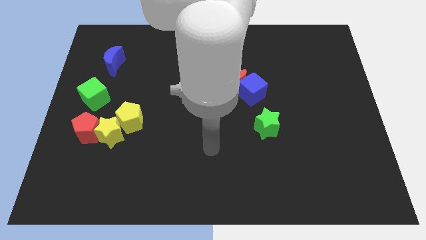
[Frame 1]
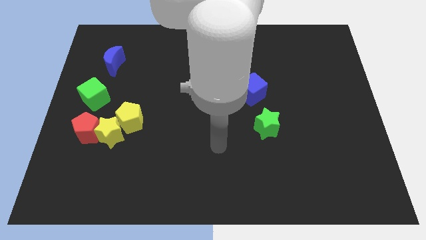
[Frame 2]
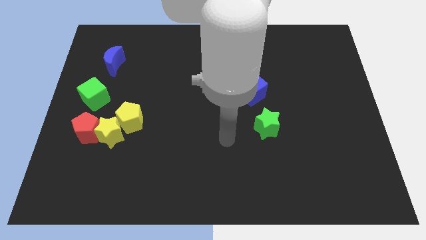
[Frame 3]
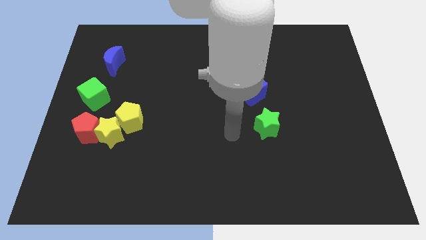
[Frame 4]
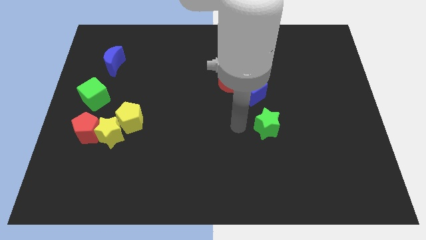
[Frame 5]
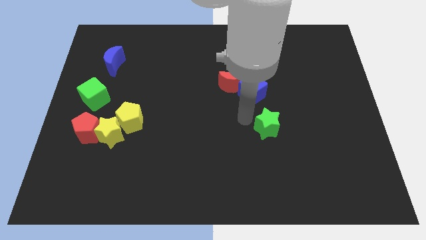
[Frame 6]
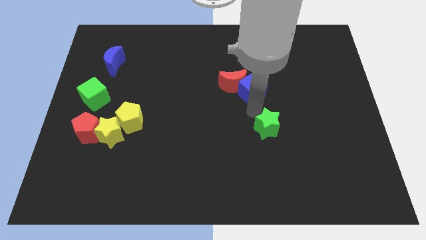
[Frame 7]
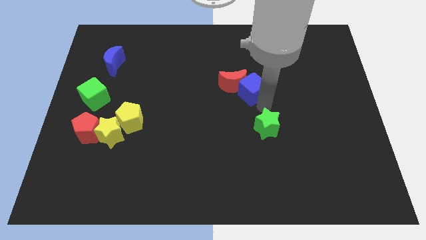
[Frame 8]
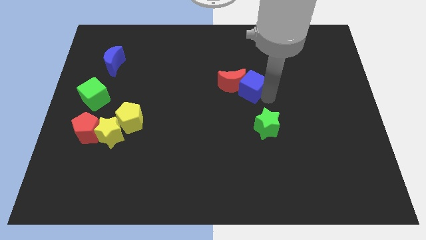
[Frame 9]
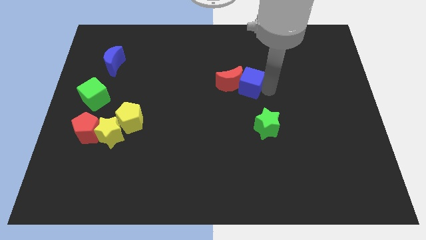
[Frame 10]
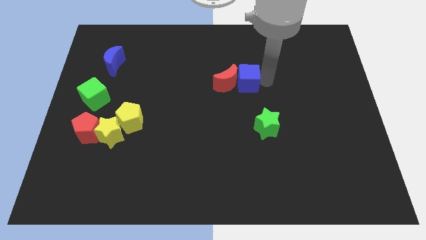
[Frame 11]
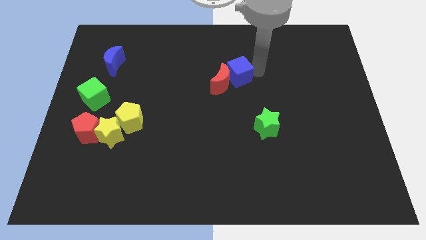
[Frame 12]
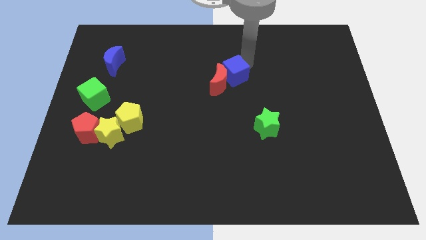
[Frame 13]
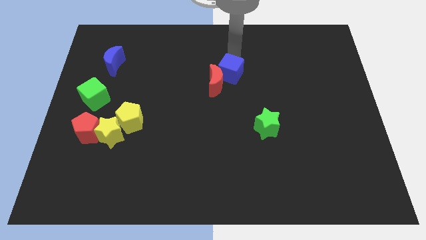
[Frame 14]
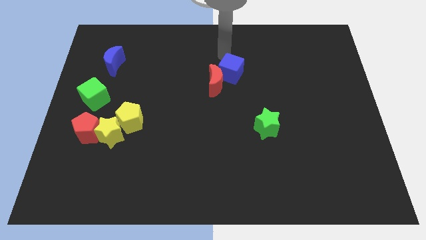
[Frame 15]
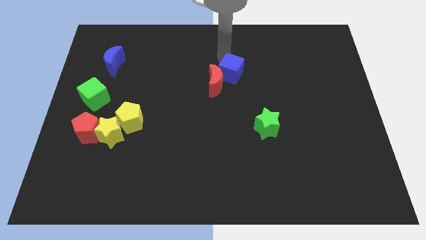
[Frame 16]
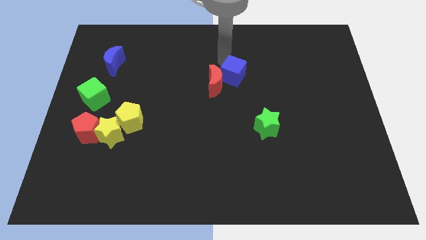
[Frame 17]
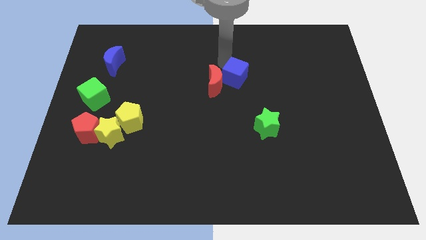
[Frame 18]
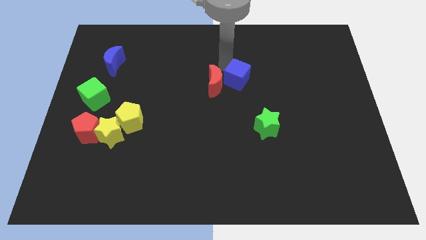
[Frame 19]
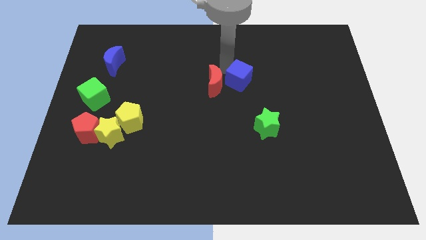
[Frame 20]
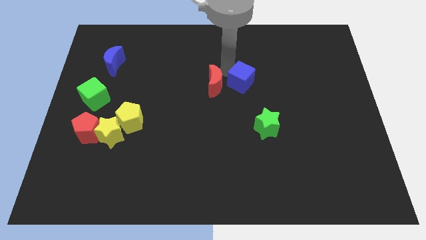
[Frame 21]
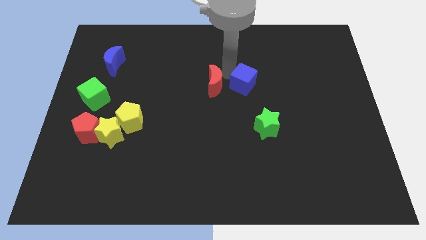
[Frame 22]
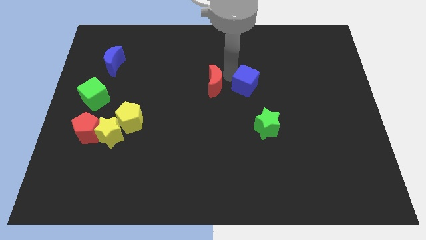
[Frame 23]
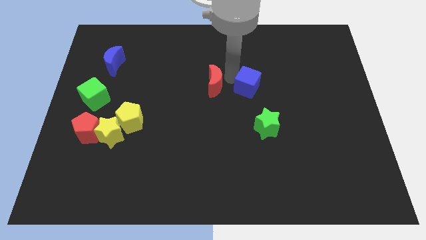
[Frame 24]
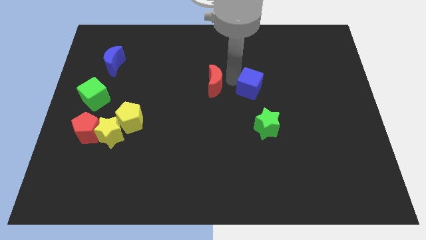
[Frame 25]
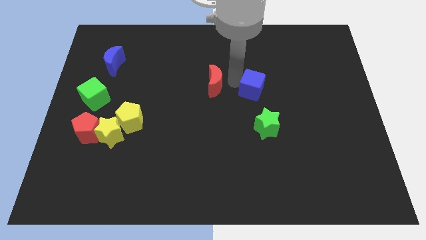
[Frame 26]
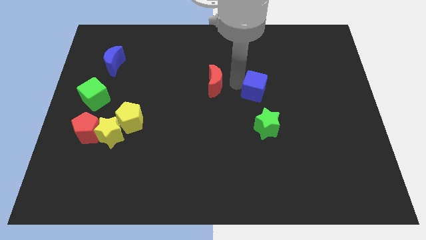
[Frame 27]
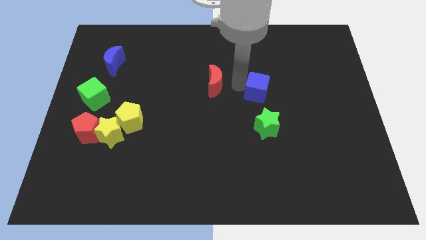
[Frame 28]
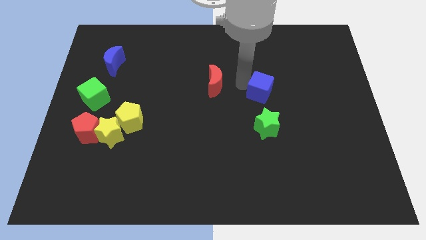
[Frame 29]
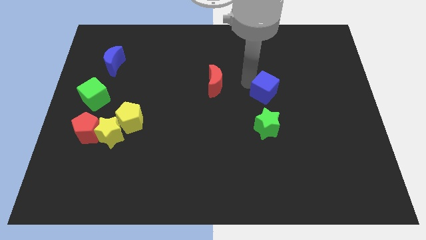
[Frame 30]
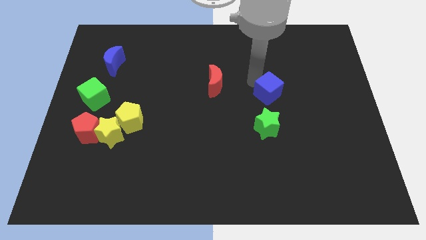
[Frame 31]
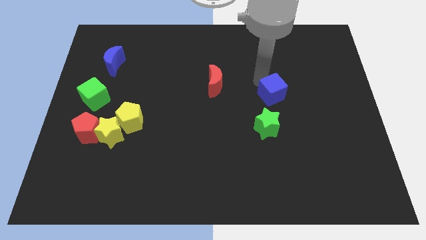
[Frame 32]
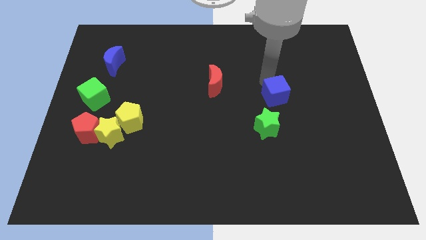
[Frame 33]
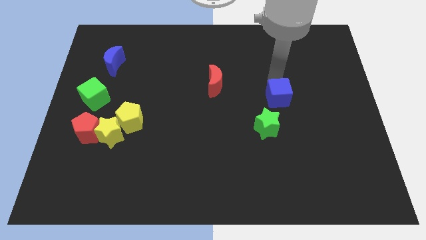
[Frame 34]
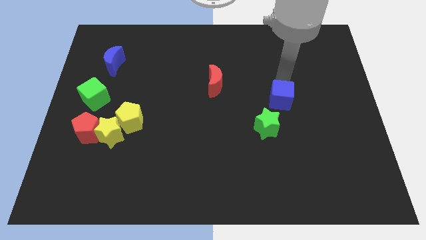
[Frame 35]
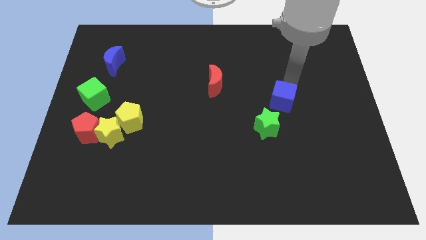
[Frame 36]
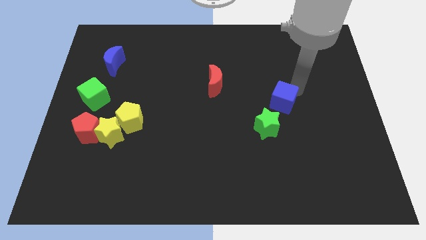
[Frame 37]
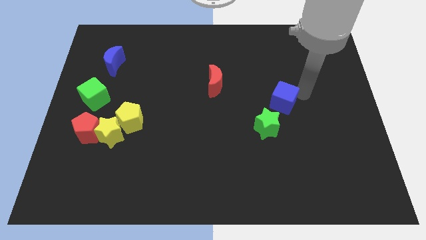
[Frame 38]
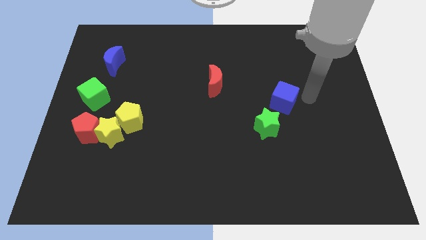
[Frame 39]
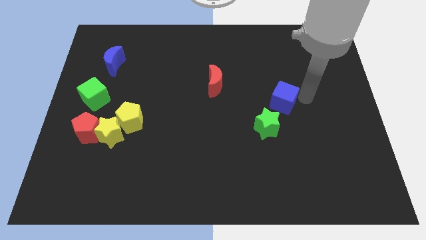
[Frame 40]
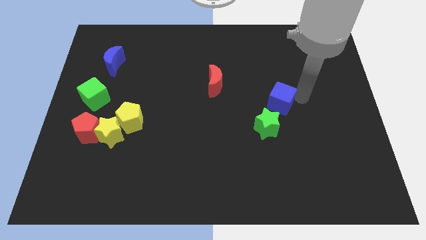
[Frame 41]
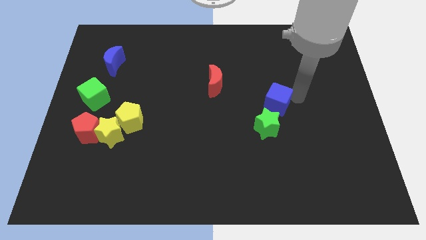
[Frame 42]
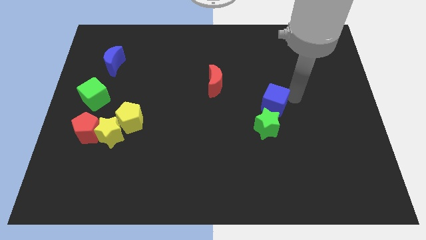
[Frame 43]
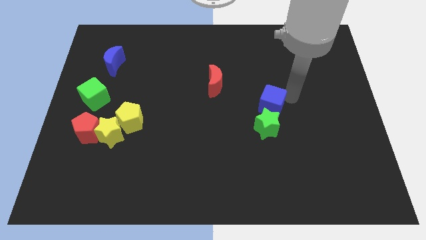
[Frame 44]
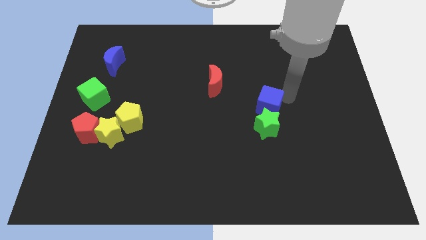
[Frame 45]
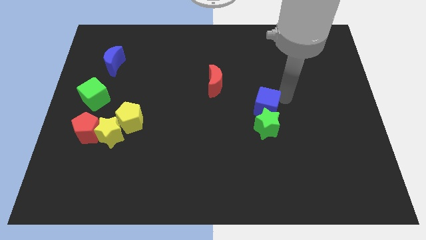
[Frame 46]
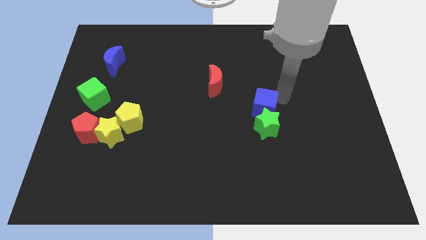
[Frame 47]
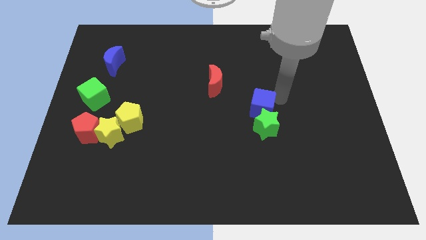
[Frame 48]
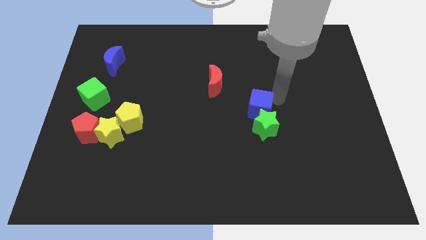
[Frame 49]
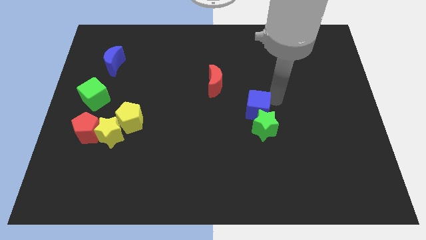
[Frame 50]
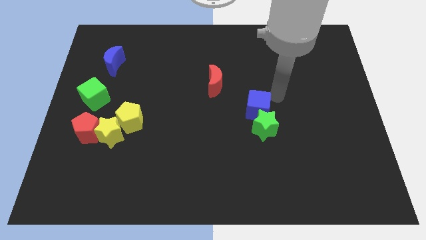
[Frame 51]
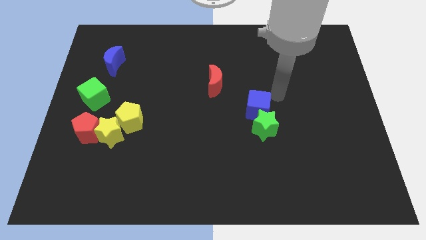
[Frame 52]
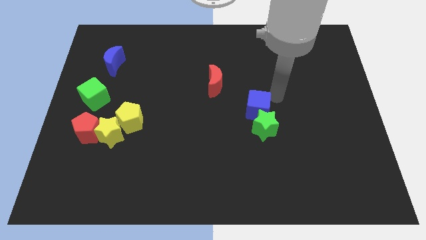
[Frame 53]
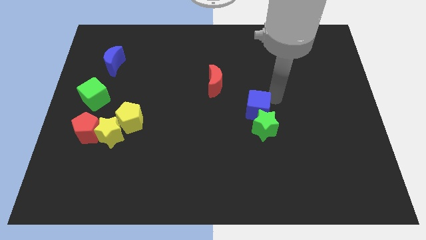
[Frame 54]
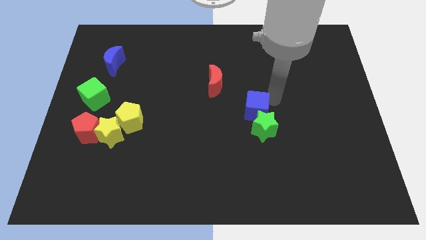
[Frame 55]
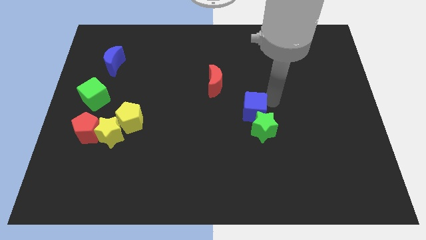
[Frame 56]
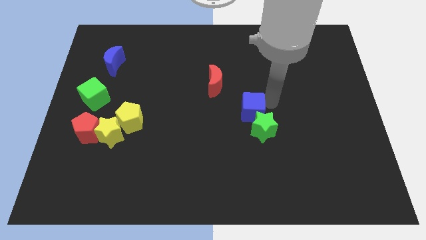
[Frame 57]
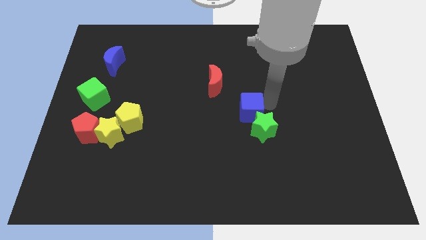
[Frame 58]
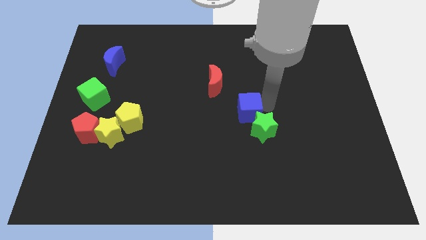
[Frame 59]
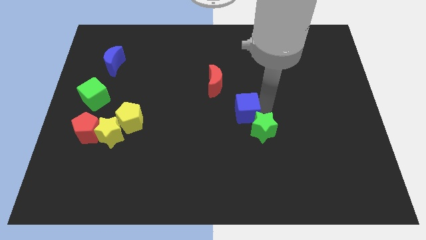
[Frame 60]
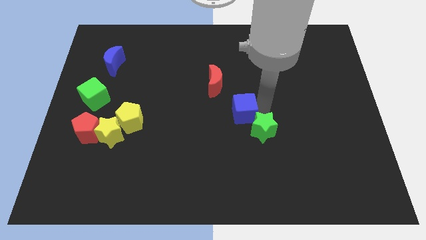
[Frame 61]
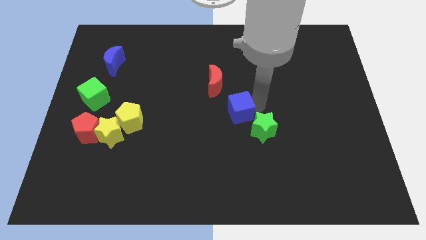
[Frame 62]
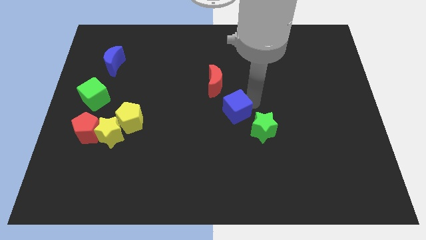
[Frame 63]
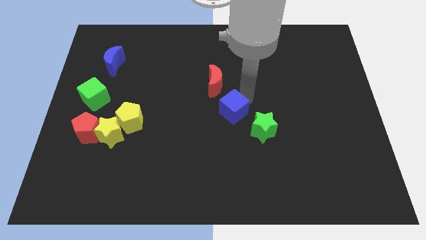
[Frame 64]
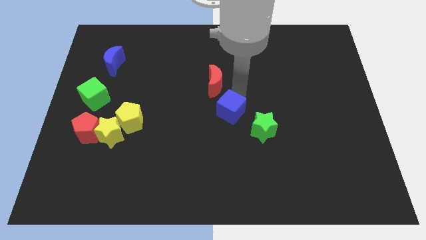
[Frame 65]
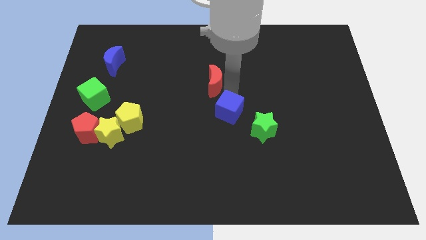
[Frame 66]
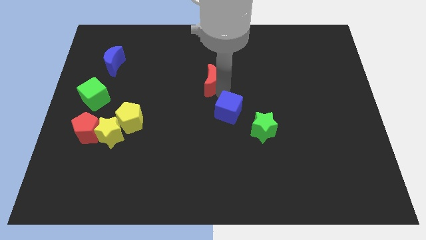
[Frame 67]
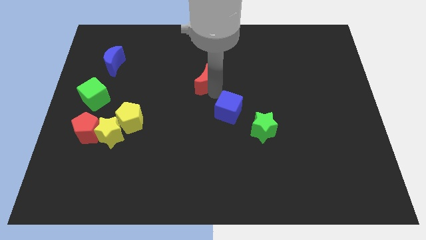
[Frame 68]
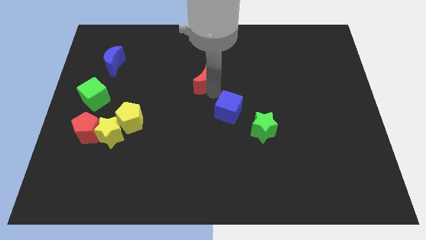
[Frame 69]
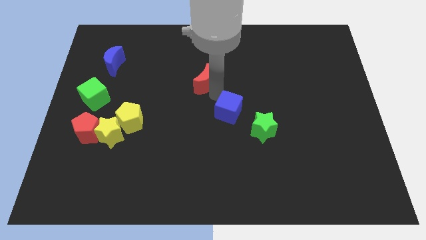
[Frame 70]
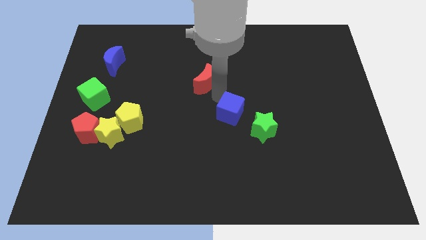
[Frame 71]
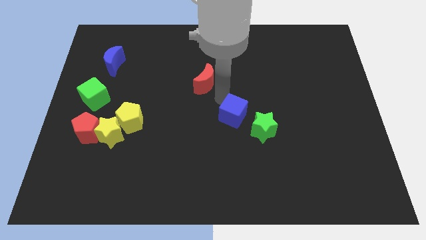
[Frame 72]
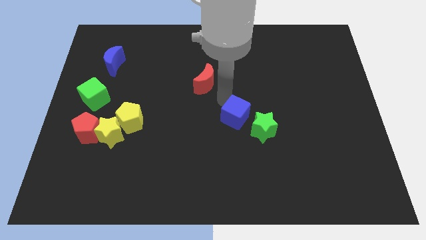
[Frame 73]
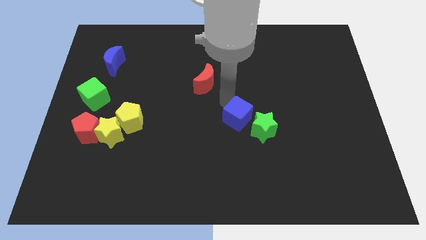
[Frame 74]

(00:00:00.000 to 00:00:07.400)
slightly slide the blue cube down

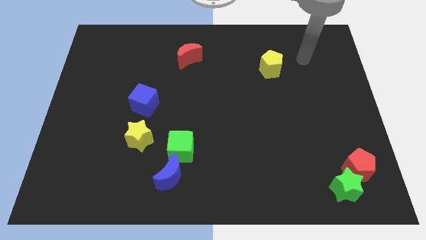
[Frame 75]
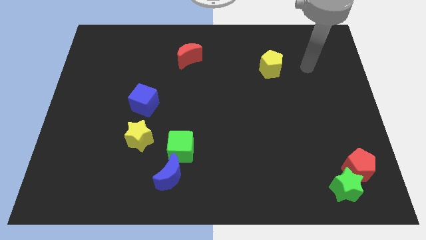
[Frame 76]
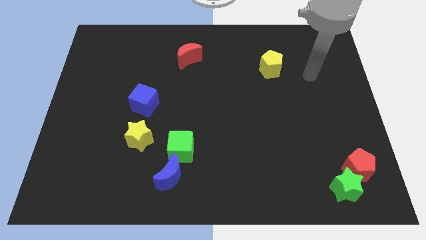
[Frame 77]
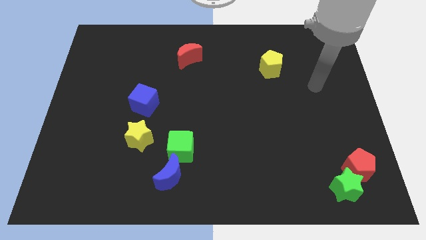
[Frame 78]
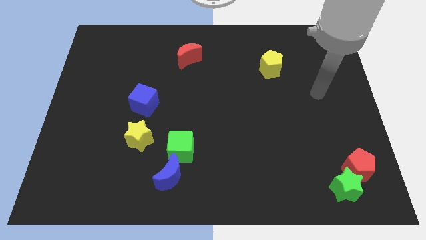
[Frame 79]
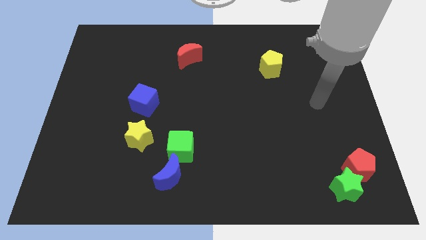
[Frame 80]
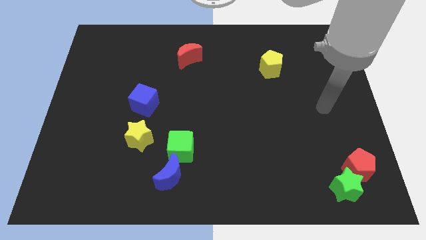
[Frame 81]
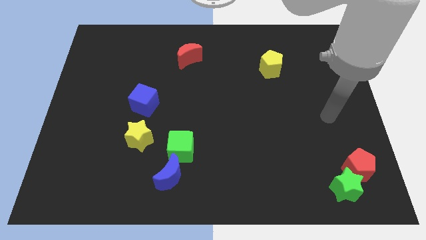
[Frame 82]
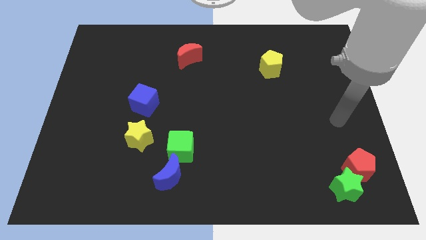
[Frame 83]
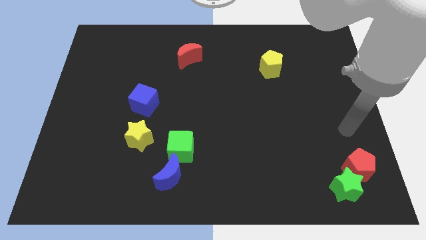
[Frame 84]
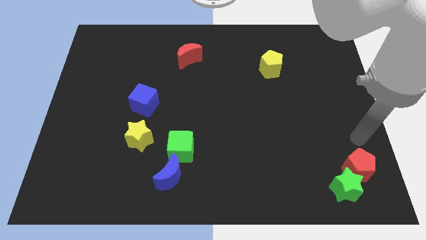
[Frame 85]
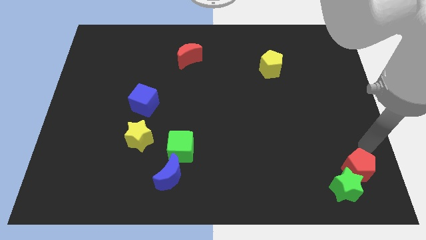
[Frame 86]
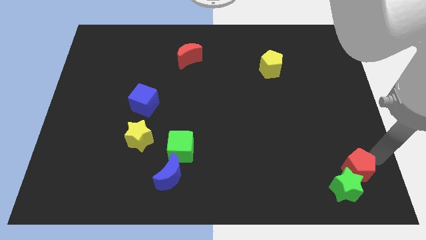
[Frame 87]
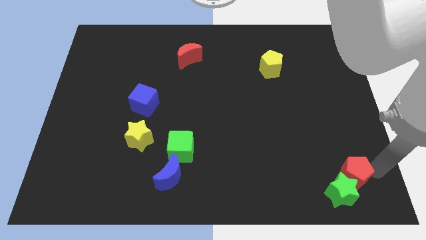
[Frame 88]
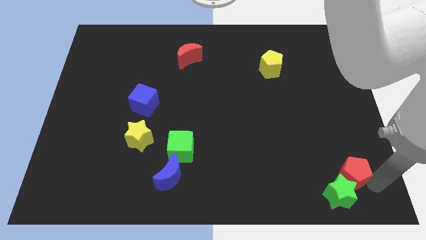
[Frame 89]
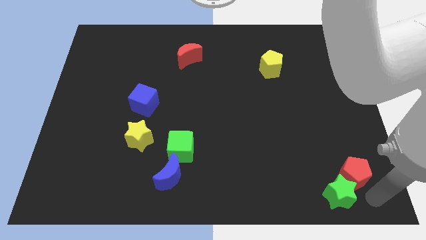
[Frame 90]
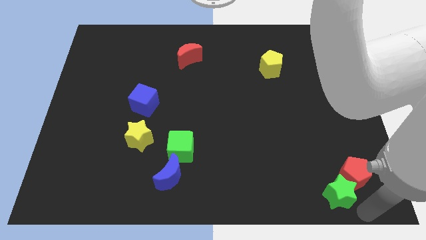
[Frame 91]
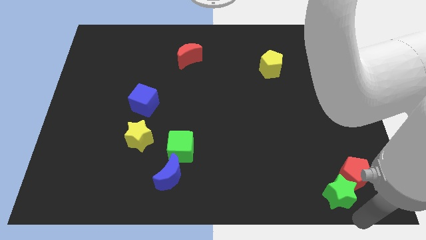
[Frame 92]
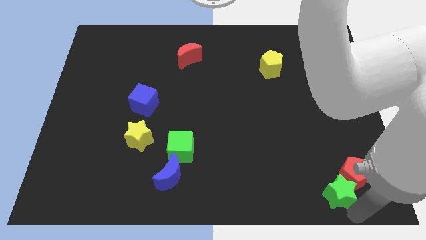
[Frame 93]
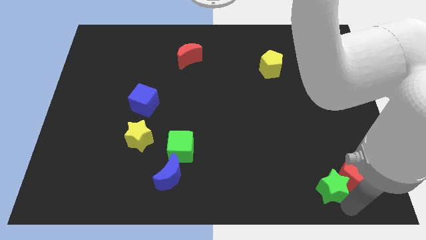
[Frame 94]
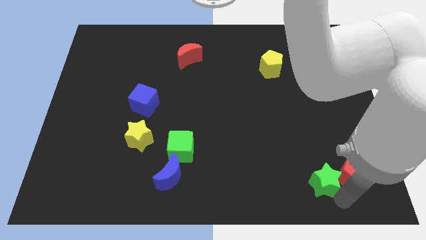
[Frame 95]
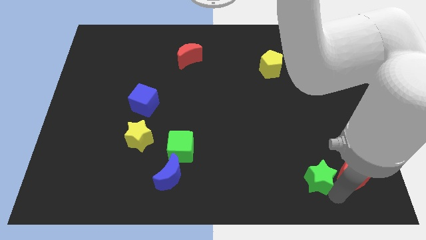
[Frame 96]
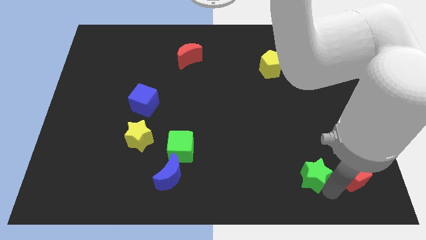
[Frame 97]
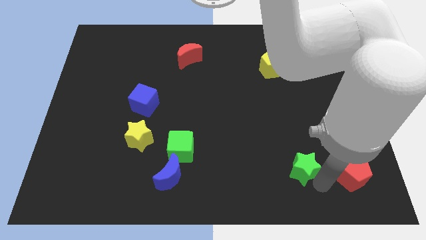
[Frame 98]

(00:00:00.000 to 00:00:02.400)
slide the green star diagonally up and left a bit
